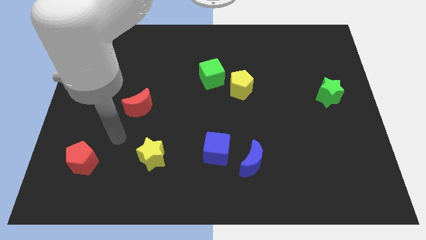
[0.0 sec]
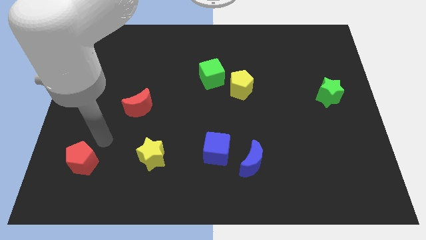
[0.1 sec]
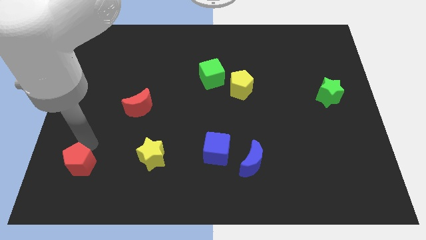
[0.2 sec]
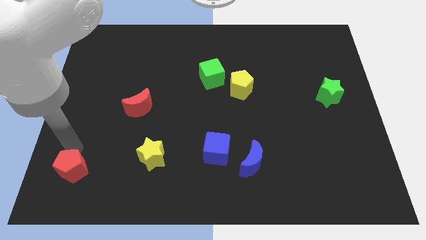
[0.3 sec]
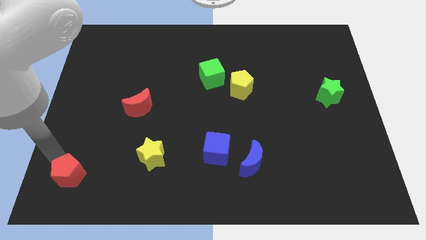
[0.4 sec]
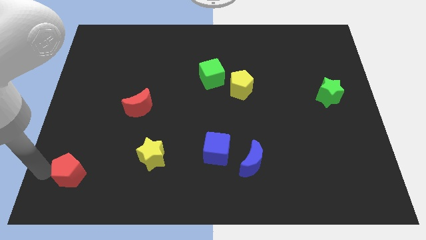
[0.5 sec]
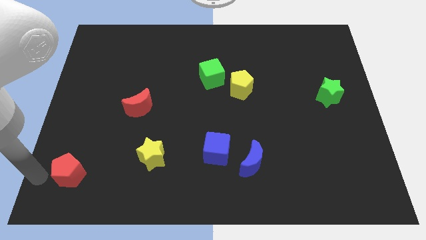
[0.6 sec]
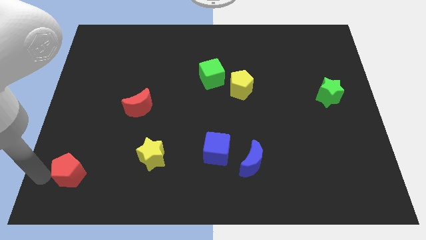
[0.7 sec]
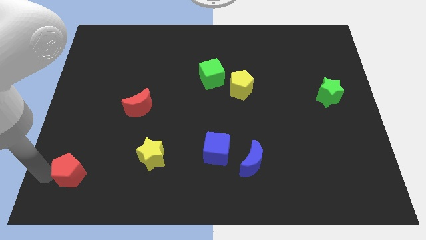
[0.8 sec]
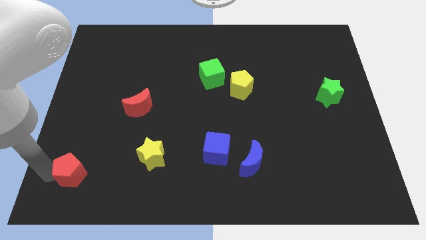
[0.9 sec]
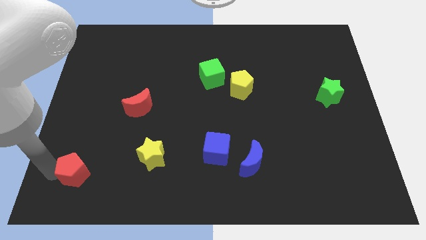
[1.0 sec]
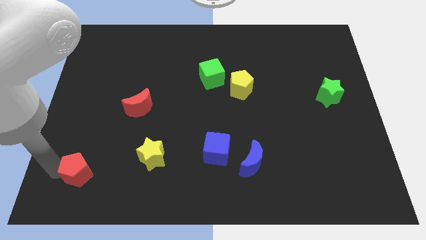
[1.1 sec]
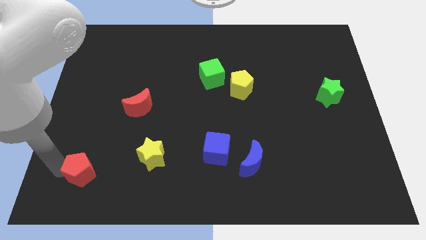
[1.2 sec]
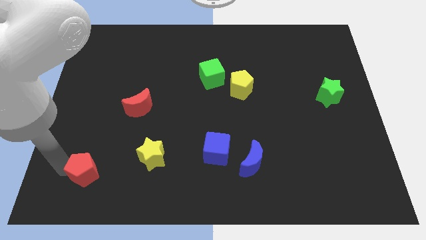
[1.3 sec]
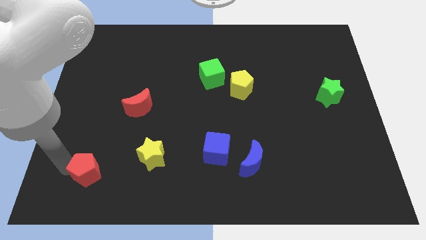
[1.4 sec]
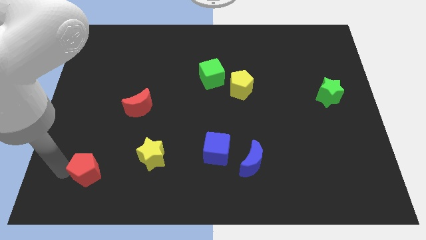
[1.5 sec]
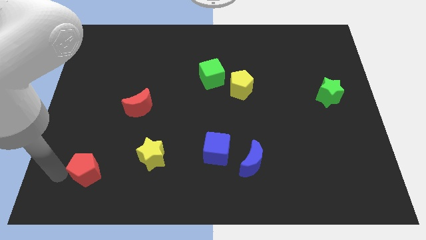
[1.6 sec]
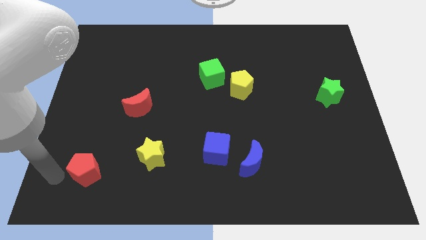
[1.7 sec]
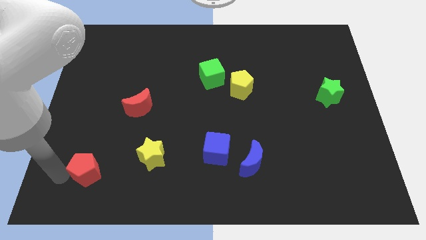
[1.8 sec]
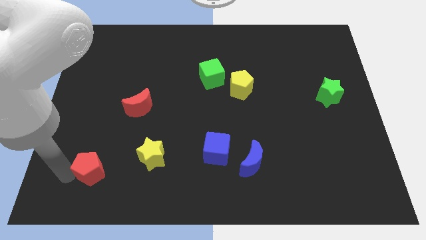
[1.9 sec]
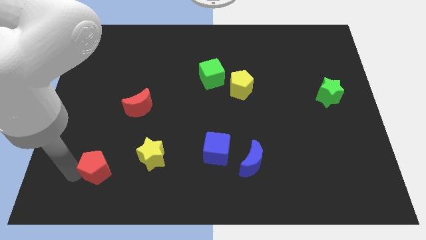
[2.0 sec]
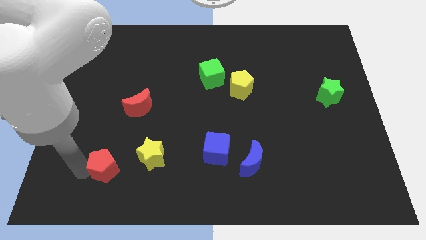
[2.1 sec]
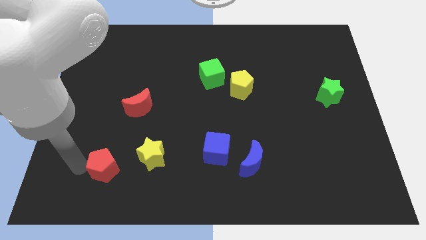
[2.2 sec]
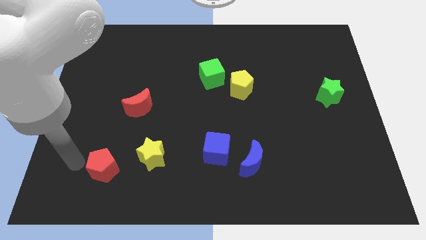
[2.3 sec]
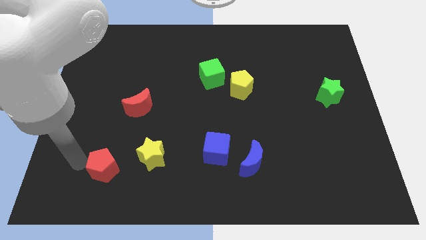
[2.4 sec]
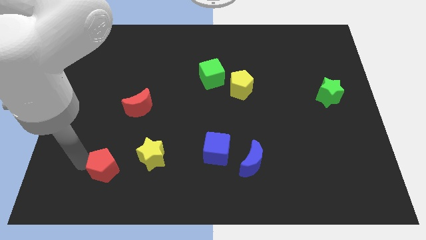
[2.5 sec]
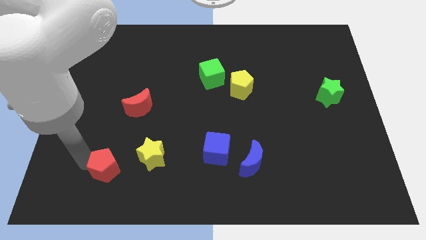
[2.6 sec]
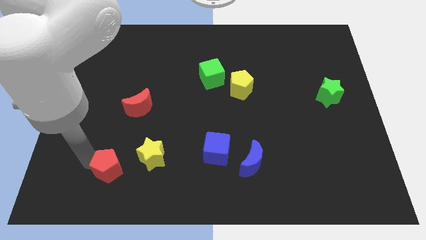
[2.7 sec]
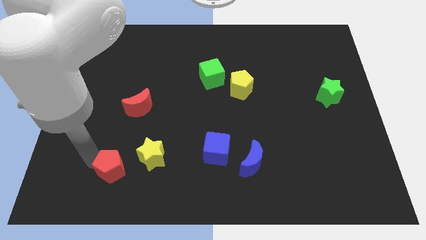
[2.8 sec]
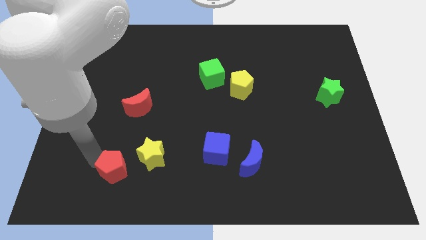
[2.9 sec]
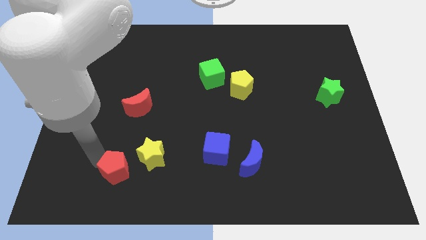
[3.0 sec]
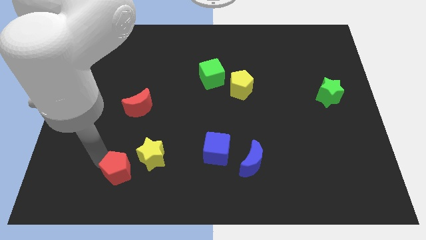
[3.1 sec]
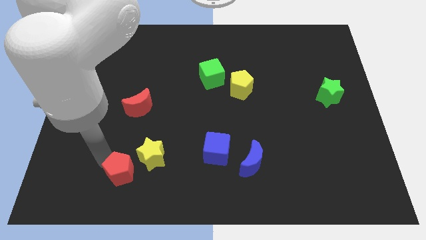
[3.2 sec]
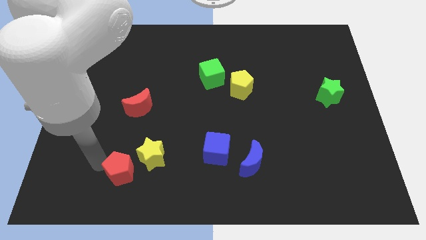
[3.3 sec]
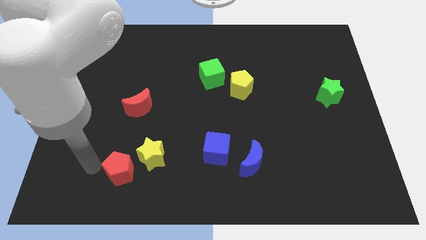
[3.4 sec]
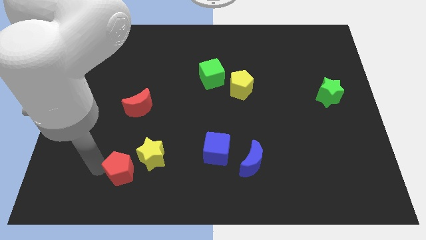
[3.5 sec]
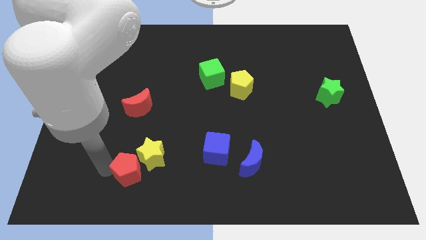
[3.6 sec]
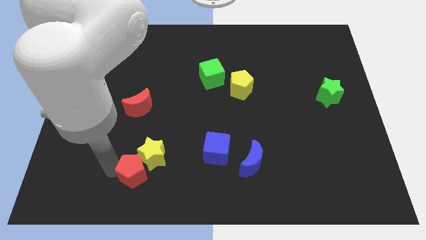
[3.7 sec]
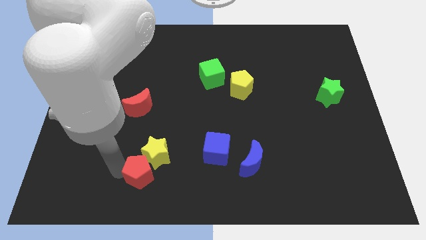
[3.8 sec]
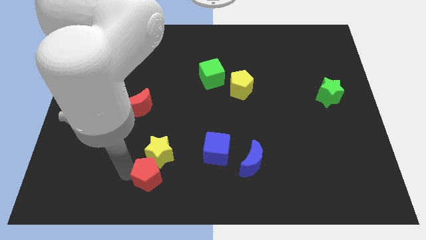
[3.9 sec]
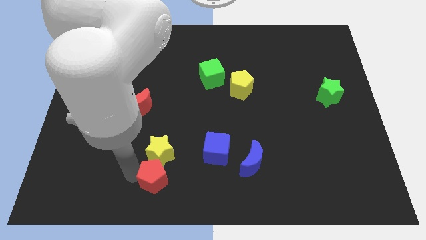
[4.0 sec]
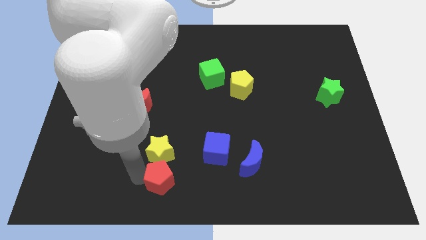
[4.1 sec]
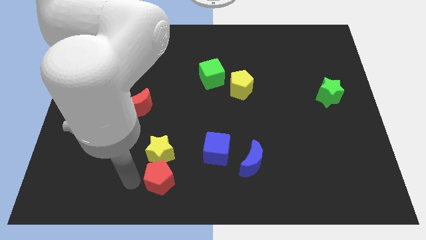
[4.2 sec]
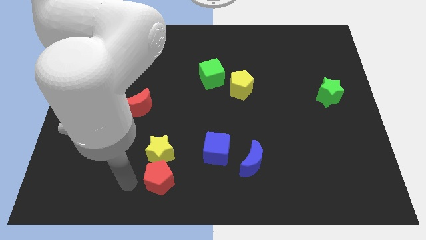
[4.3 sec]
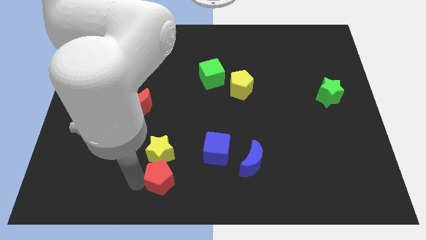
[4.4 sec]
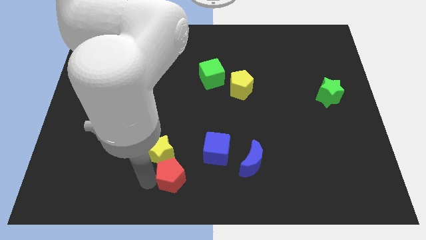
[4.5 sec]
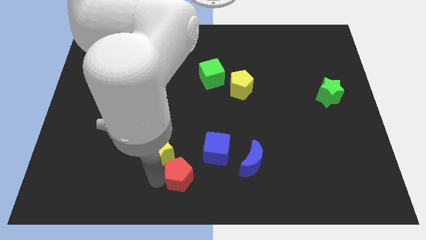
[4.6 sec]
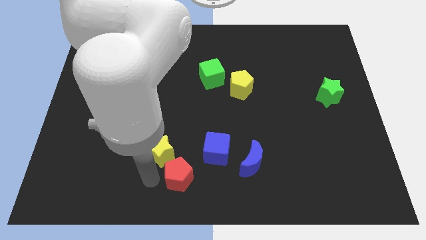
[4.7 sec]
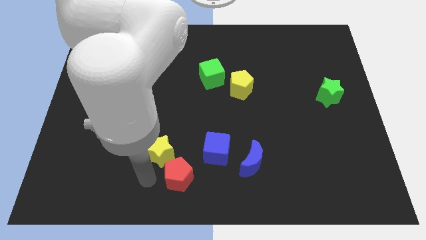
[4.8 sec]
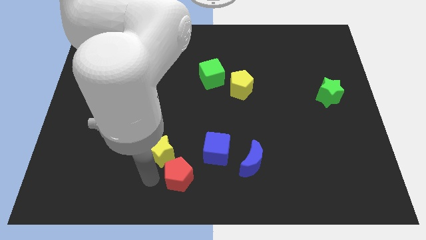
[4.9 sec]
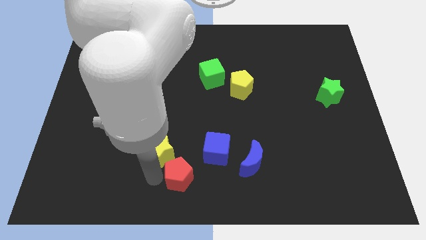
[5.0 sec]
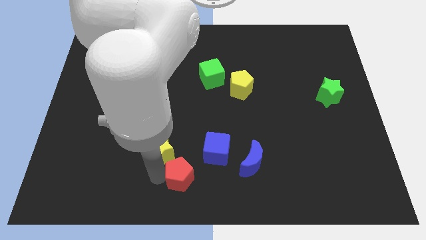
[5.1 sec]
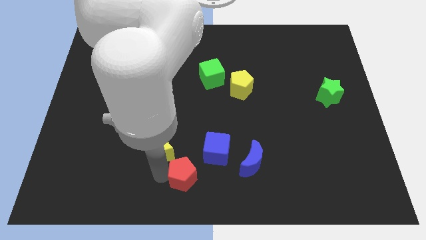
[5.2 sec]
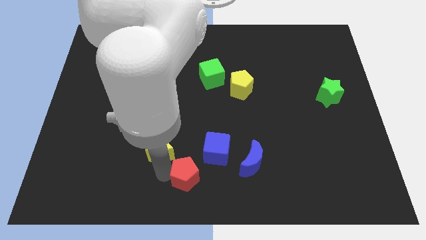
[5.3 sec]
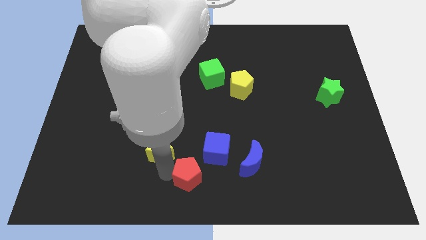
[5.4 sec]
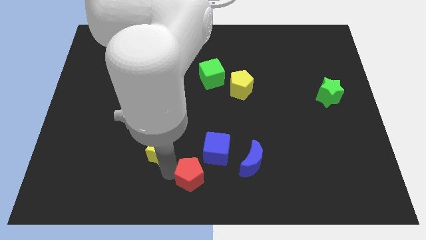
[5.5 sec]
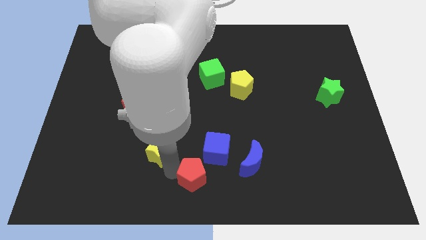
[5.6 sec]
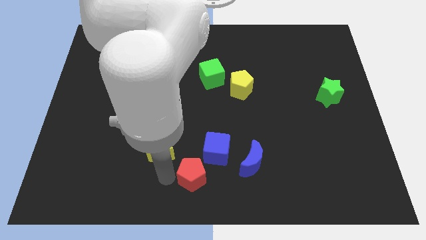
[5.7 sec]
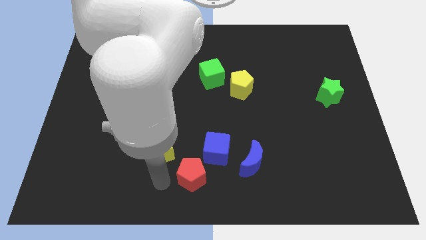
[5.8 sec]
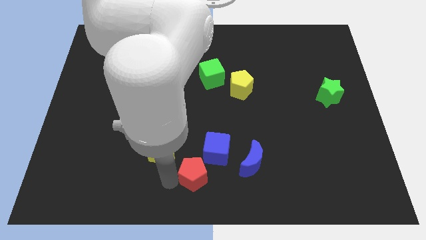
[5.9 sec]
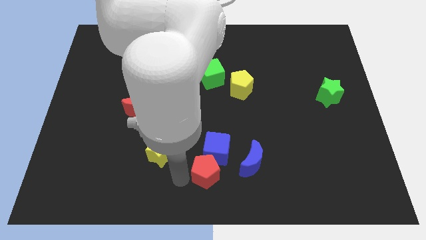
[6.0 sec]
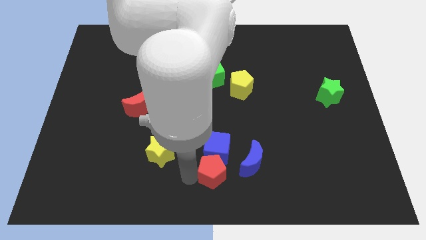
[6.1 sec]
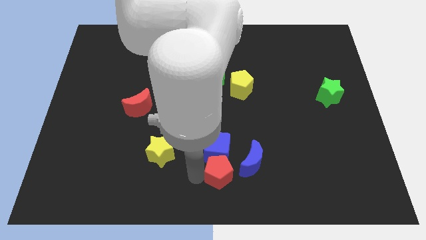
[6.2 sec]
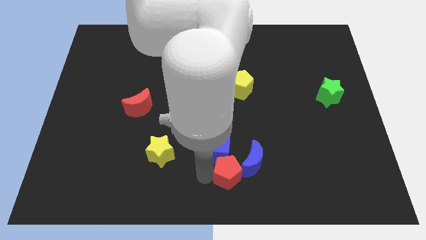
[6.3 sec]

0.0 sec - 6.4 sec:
move the red pentagon towards the blue moon

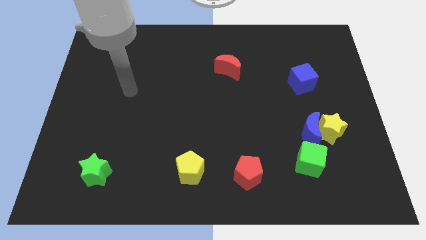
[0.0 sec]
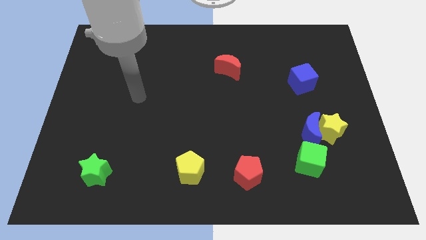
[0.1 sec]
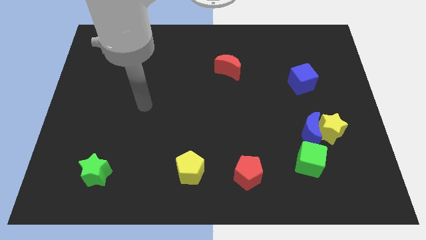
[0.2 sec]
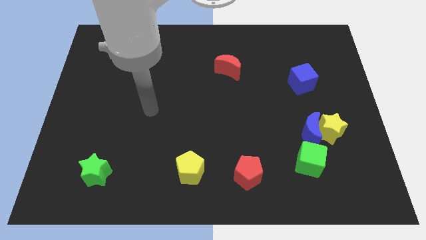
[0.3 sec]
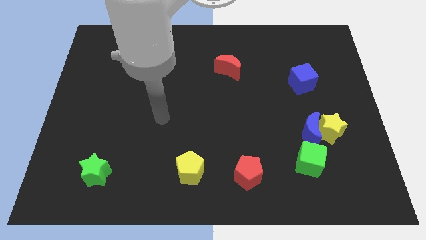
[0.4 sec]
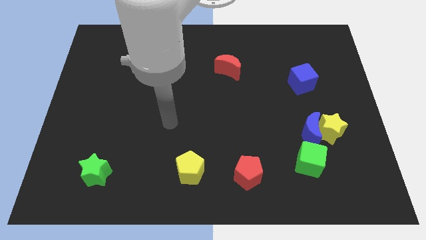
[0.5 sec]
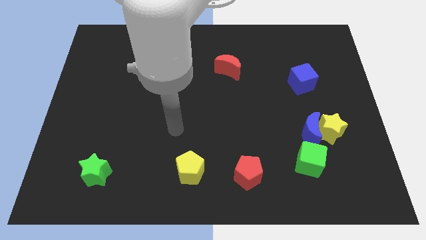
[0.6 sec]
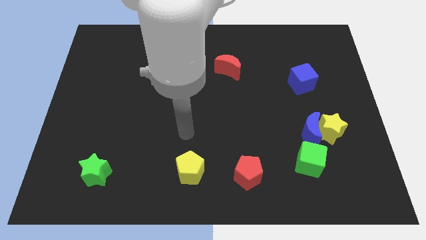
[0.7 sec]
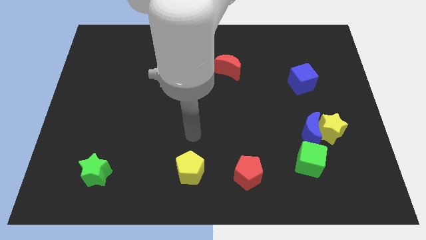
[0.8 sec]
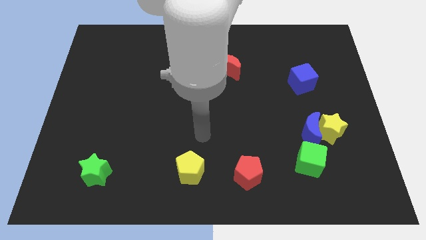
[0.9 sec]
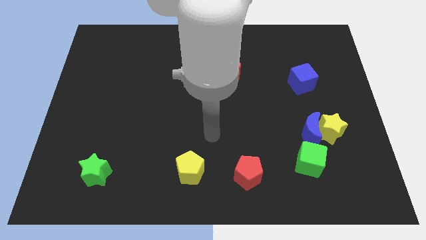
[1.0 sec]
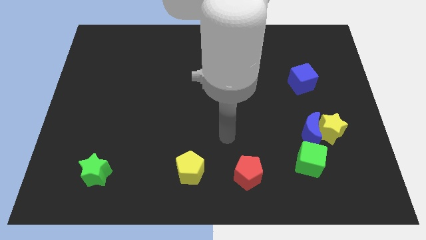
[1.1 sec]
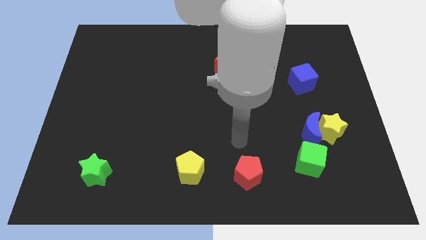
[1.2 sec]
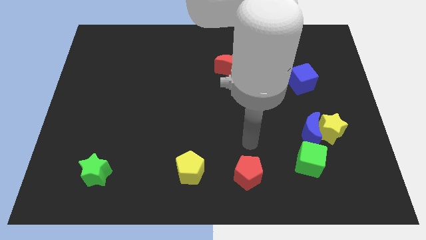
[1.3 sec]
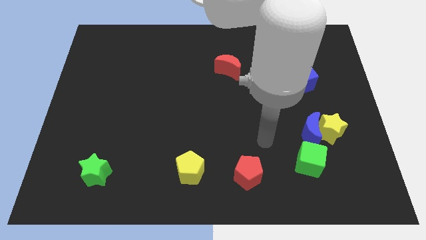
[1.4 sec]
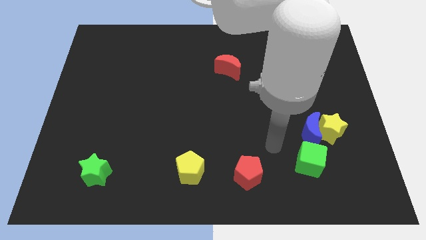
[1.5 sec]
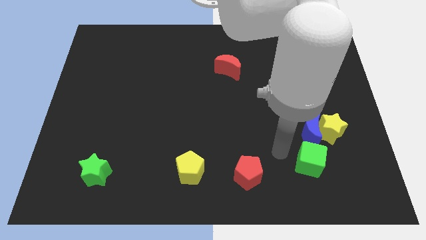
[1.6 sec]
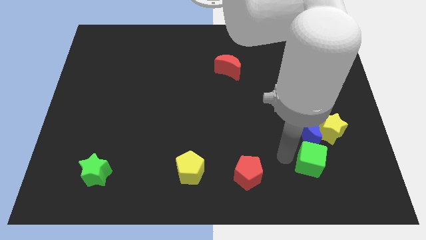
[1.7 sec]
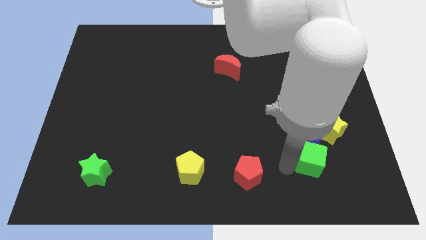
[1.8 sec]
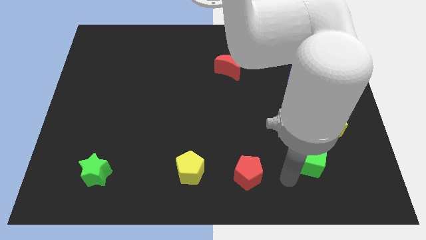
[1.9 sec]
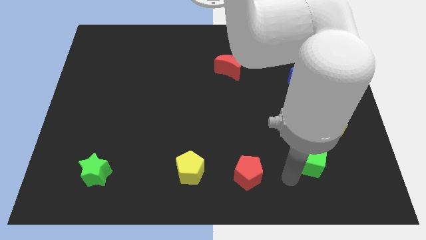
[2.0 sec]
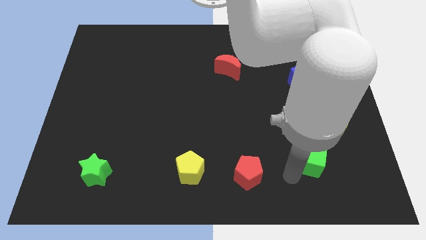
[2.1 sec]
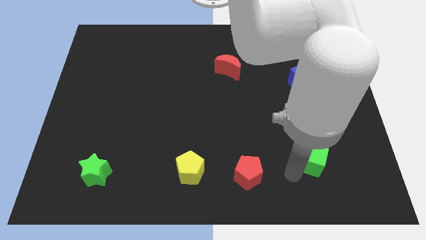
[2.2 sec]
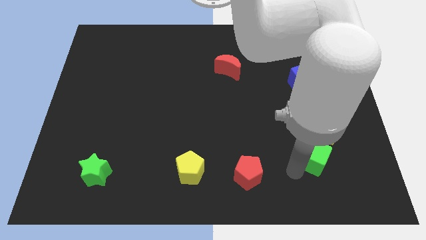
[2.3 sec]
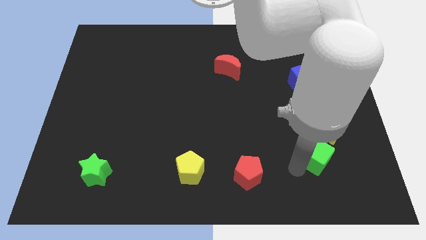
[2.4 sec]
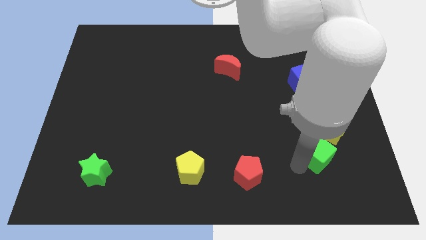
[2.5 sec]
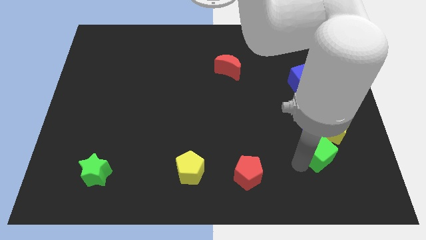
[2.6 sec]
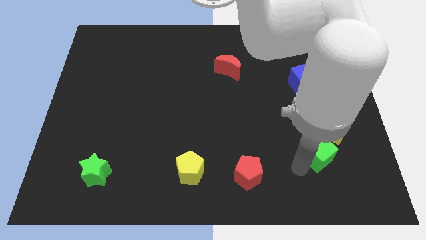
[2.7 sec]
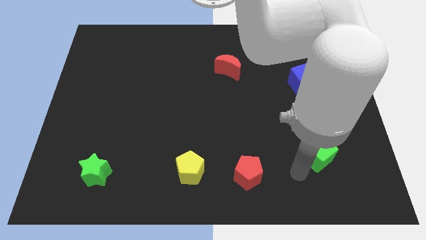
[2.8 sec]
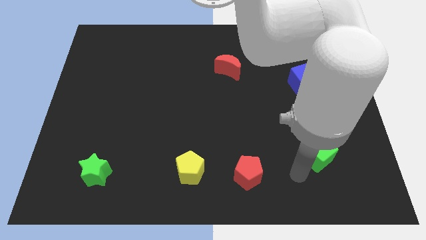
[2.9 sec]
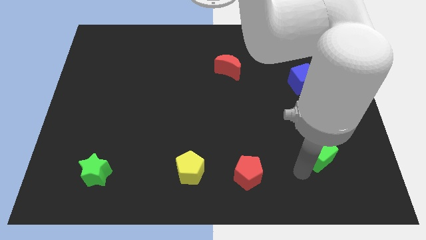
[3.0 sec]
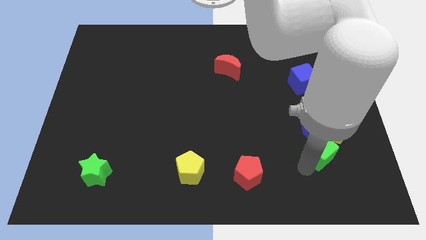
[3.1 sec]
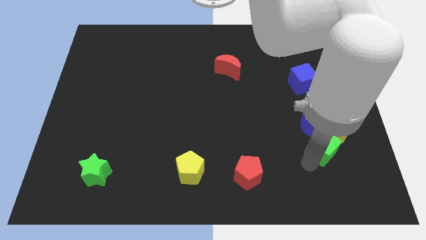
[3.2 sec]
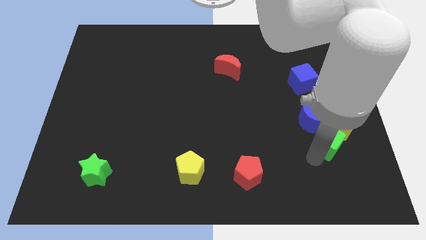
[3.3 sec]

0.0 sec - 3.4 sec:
move the green cube close to the yellow star
